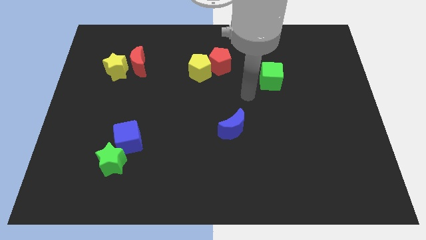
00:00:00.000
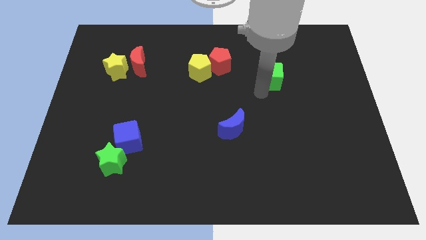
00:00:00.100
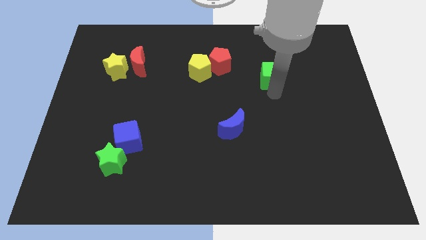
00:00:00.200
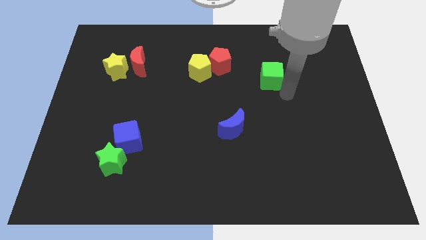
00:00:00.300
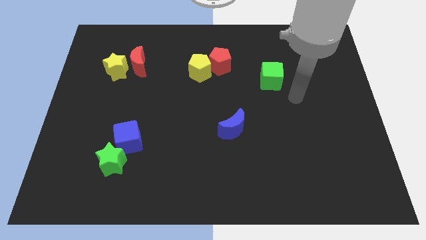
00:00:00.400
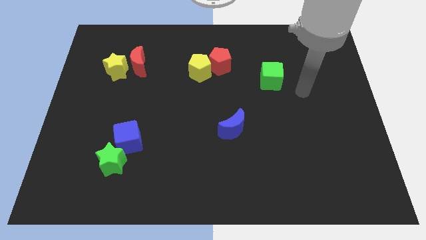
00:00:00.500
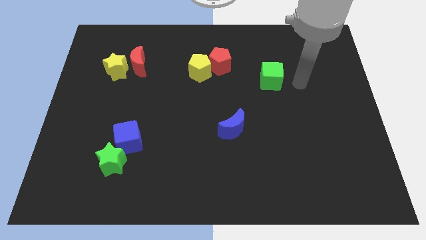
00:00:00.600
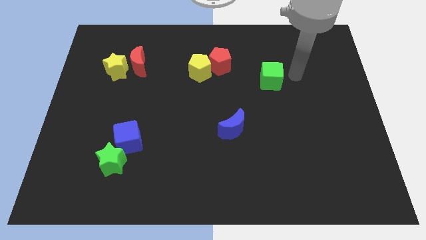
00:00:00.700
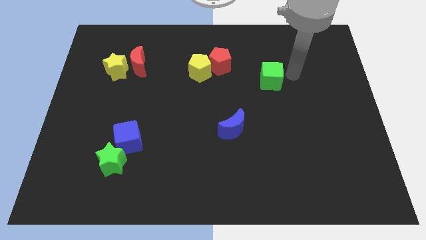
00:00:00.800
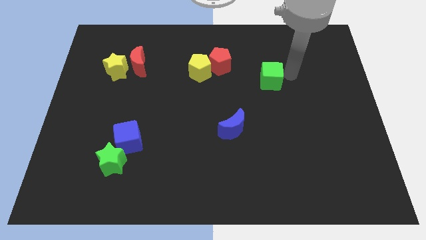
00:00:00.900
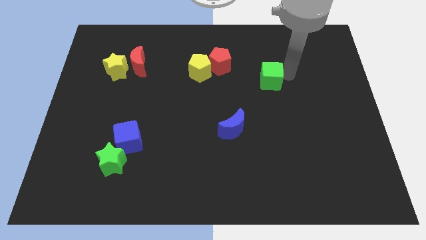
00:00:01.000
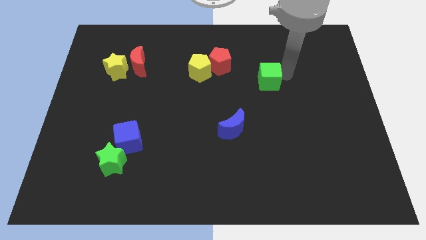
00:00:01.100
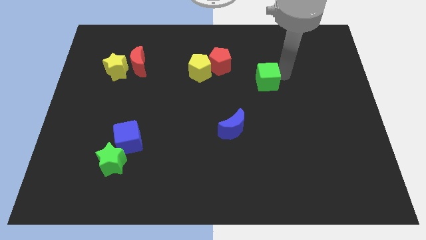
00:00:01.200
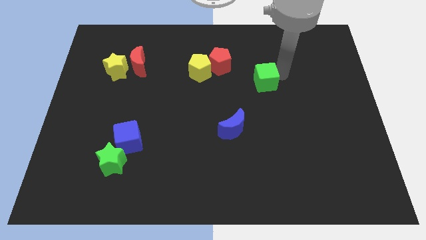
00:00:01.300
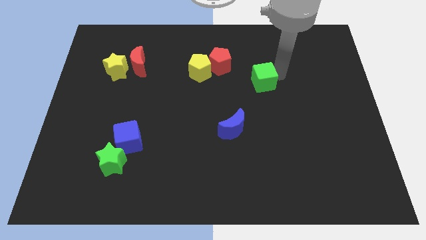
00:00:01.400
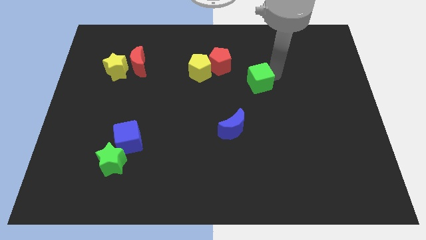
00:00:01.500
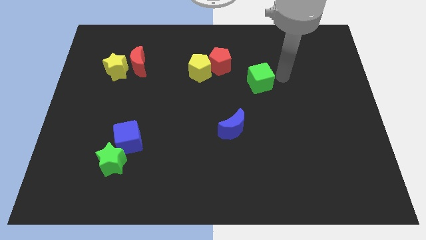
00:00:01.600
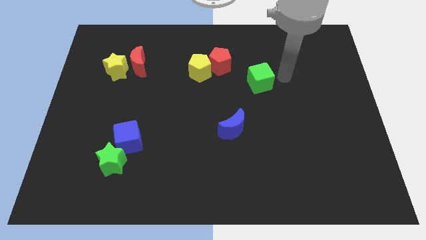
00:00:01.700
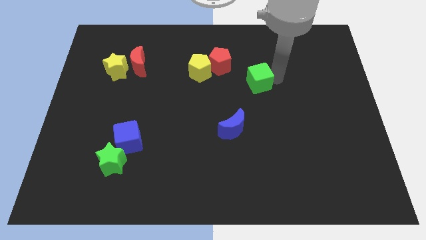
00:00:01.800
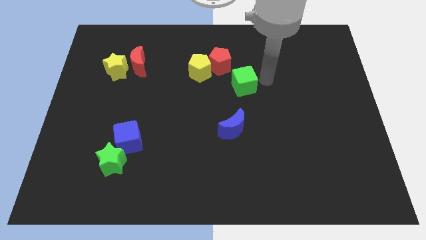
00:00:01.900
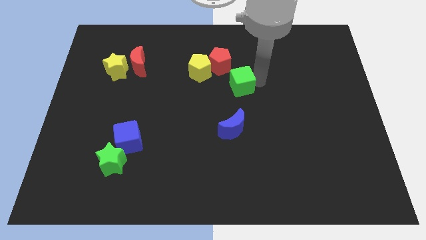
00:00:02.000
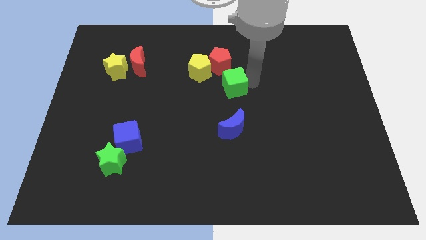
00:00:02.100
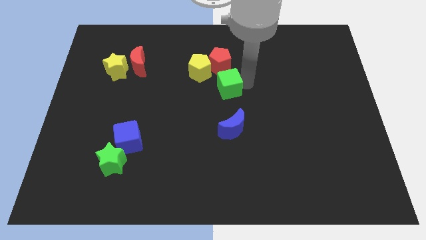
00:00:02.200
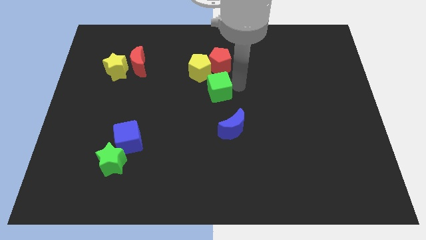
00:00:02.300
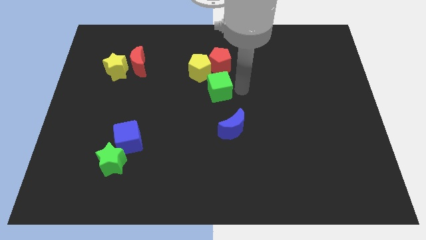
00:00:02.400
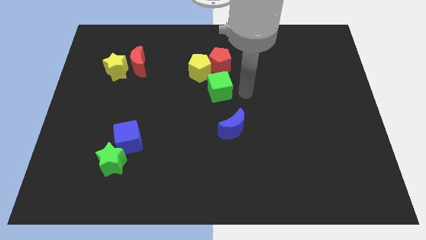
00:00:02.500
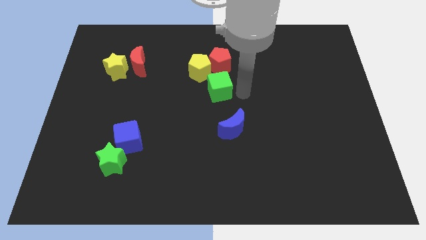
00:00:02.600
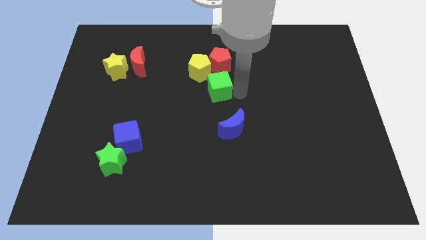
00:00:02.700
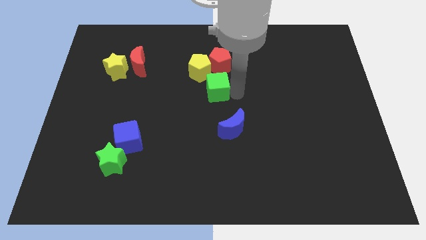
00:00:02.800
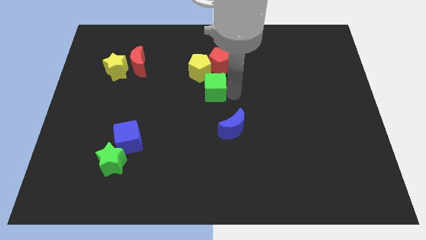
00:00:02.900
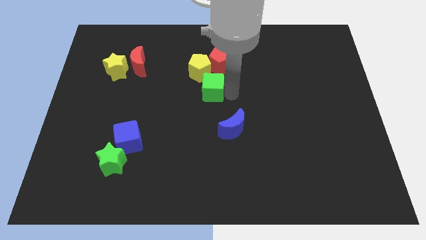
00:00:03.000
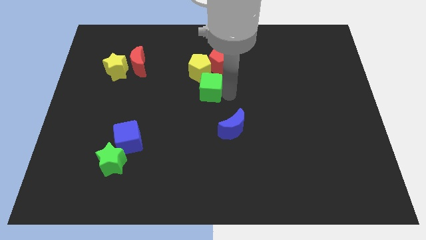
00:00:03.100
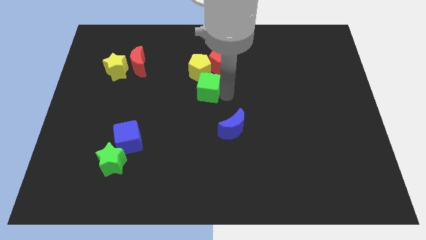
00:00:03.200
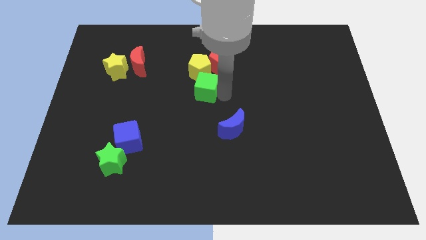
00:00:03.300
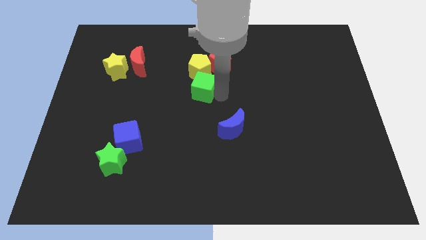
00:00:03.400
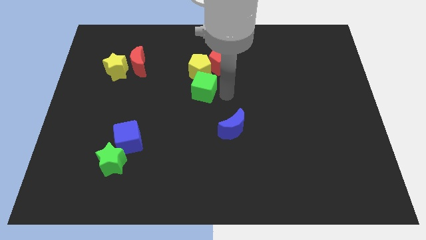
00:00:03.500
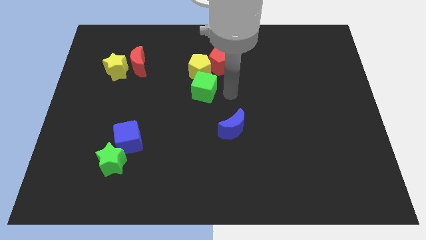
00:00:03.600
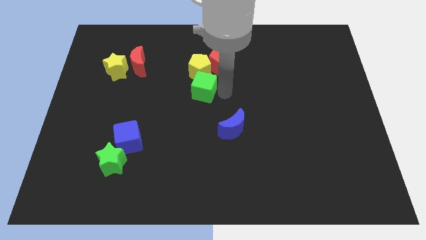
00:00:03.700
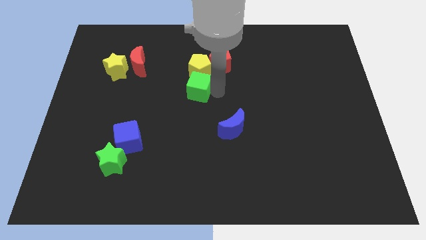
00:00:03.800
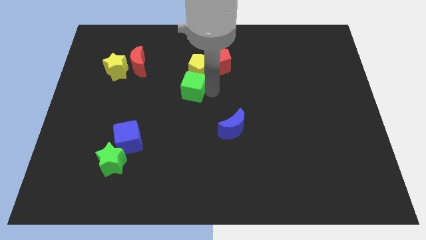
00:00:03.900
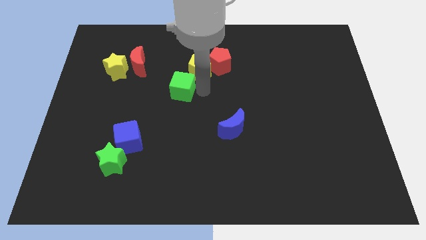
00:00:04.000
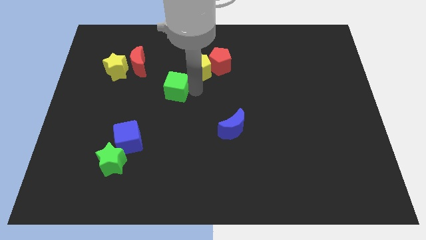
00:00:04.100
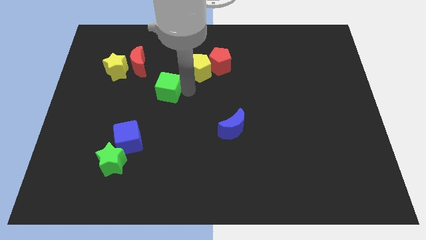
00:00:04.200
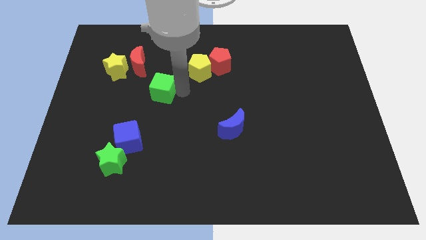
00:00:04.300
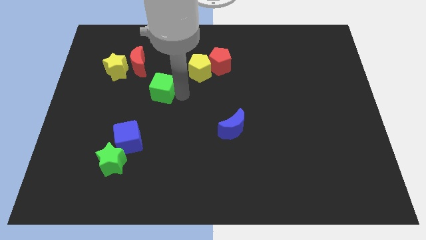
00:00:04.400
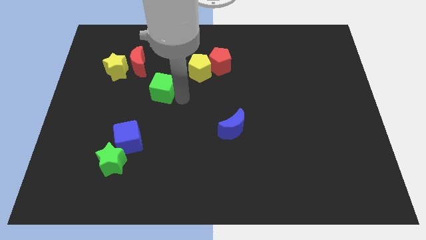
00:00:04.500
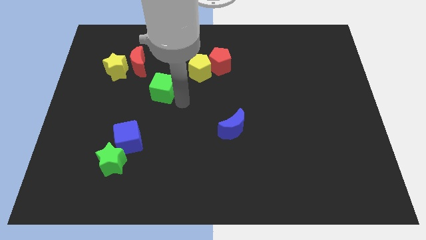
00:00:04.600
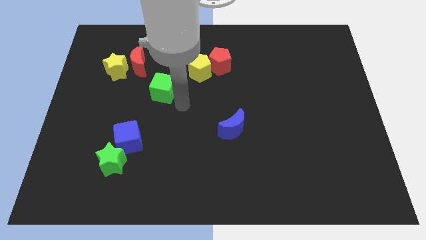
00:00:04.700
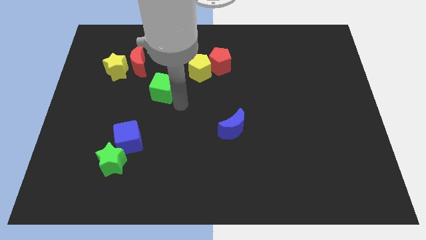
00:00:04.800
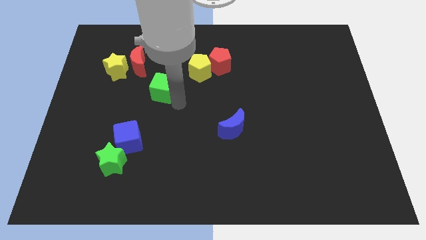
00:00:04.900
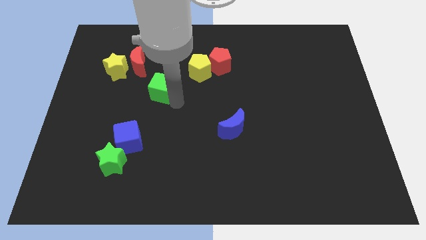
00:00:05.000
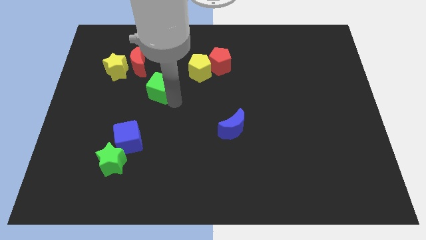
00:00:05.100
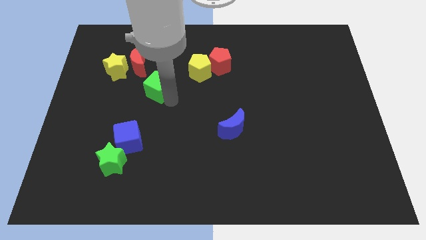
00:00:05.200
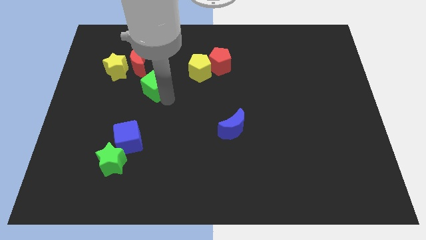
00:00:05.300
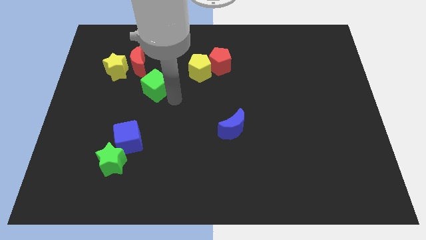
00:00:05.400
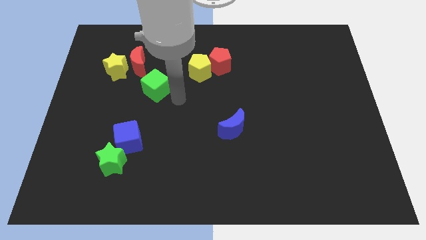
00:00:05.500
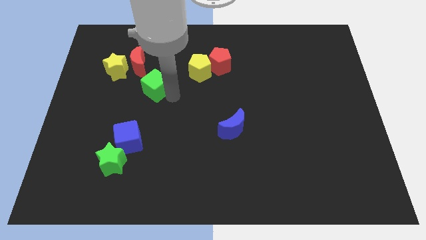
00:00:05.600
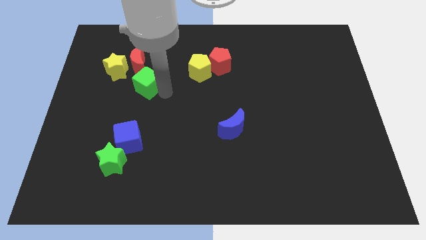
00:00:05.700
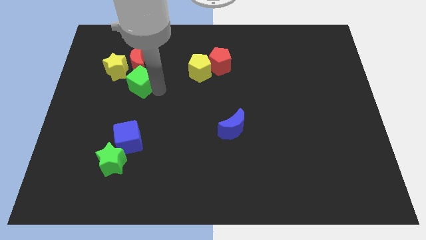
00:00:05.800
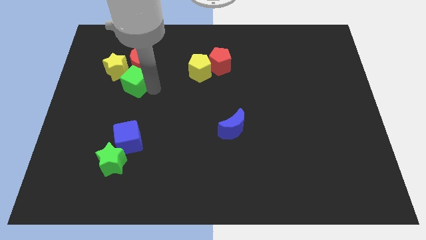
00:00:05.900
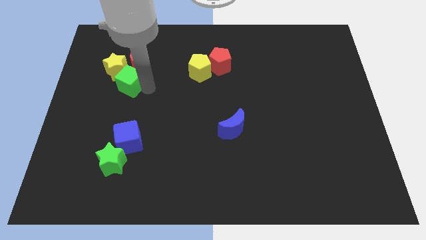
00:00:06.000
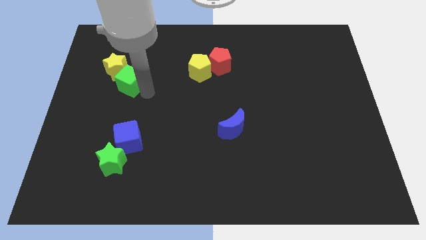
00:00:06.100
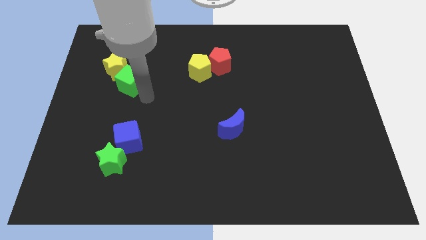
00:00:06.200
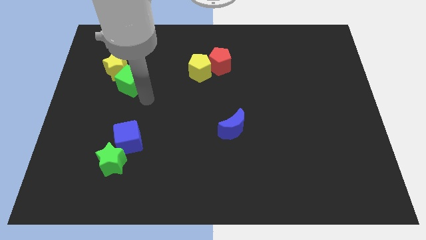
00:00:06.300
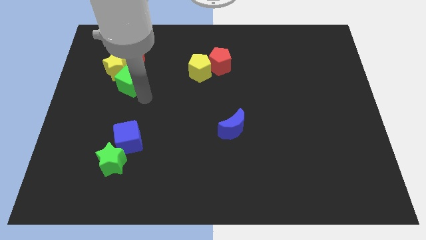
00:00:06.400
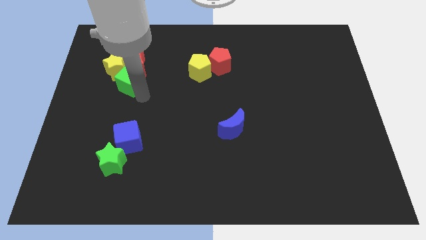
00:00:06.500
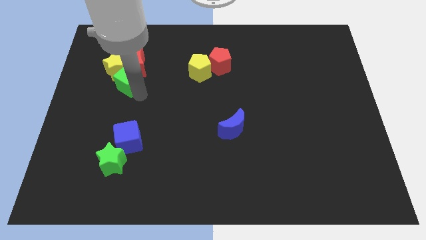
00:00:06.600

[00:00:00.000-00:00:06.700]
move the green cube to the yellow star

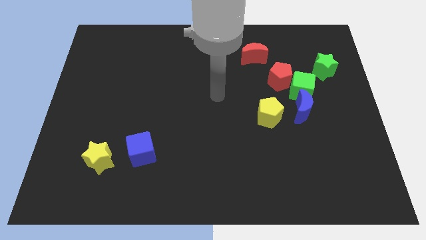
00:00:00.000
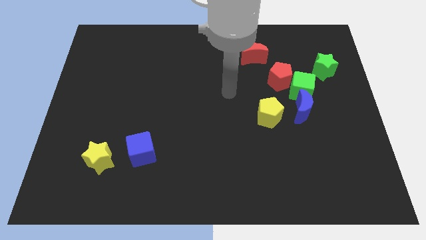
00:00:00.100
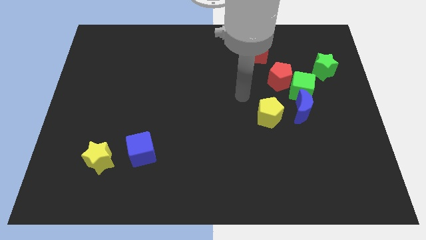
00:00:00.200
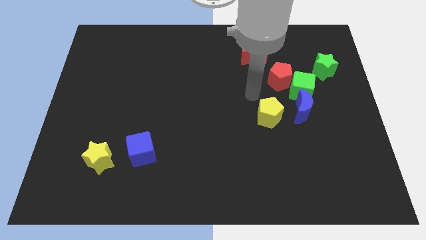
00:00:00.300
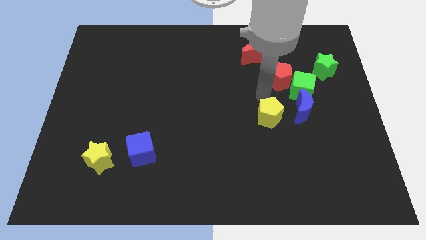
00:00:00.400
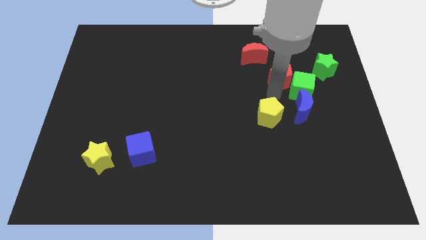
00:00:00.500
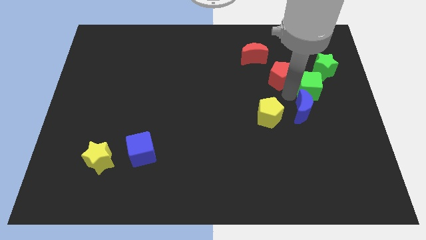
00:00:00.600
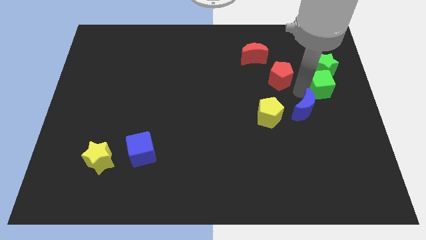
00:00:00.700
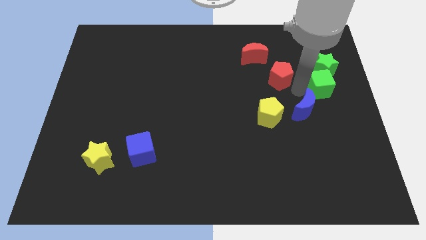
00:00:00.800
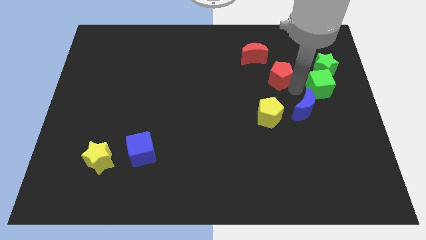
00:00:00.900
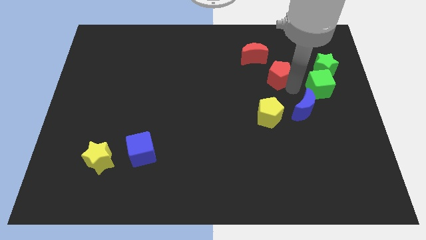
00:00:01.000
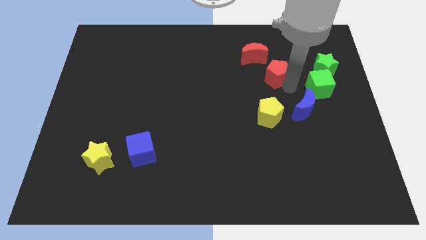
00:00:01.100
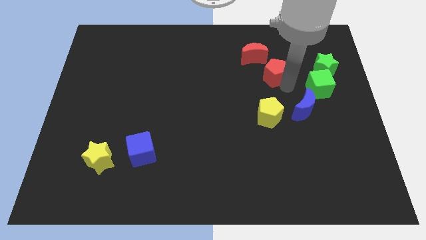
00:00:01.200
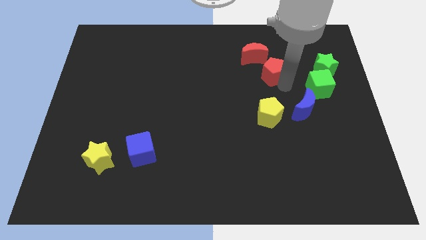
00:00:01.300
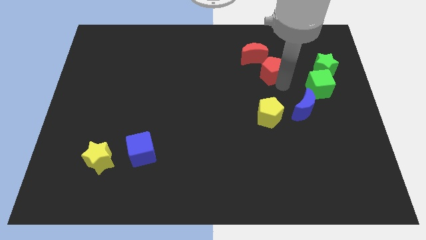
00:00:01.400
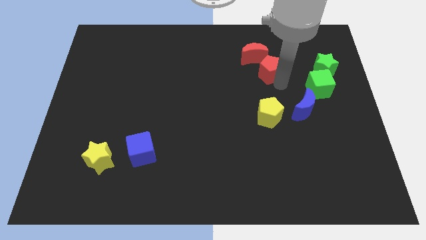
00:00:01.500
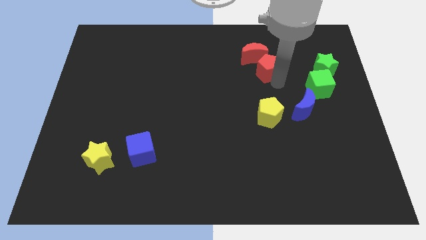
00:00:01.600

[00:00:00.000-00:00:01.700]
slide the red pentagon to the red moon
